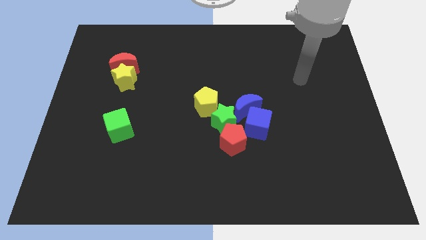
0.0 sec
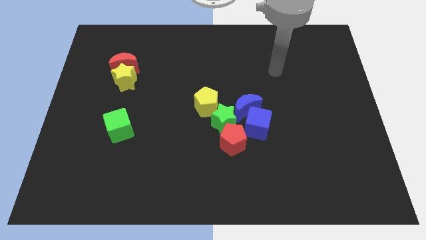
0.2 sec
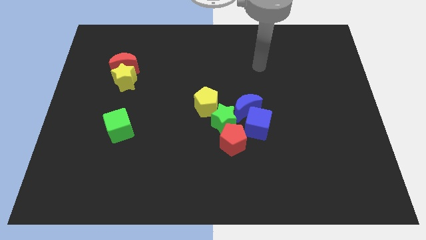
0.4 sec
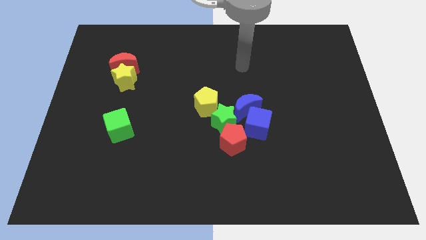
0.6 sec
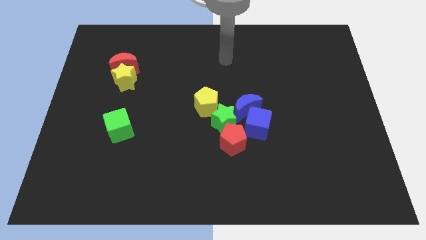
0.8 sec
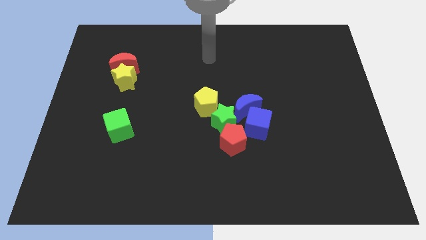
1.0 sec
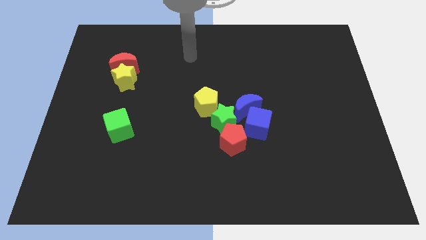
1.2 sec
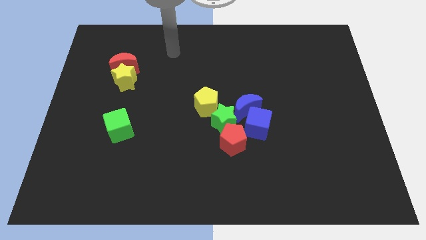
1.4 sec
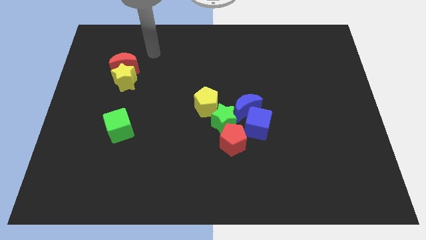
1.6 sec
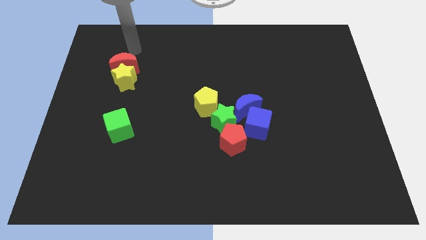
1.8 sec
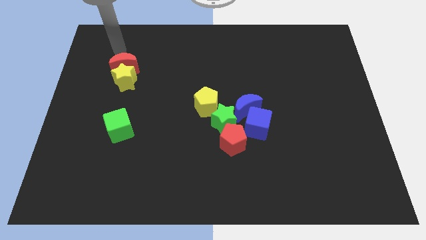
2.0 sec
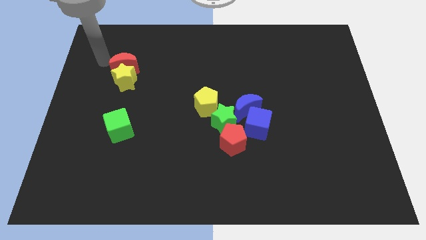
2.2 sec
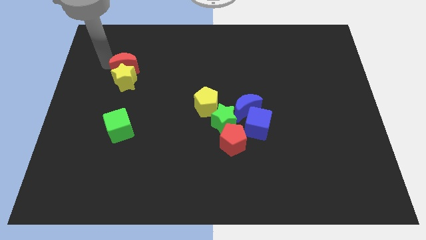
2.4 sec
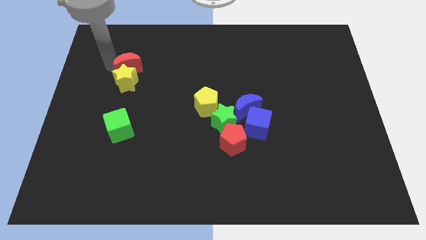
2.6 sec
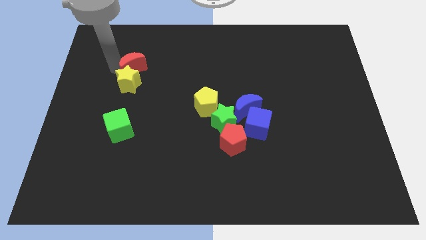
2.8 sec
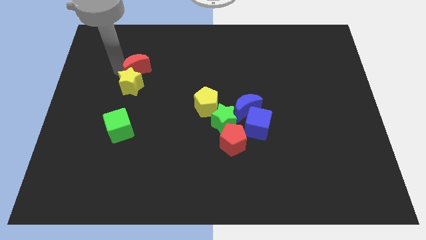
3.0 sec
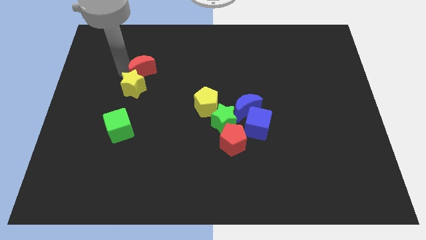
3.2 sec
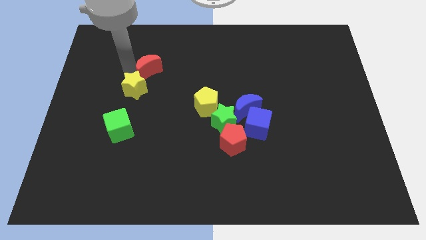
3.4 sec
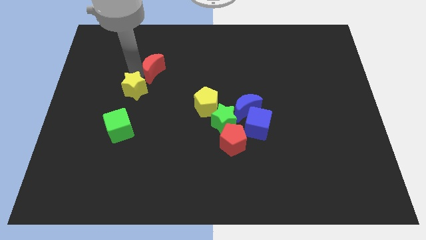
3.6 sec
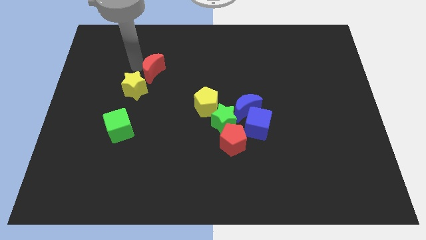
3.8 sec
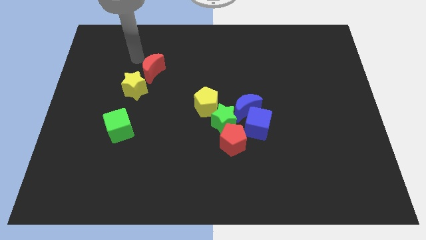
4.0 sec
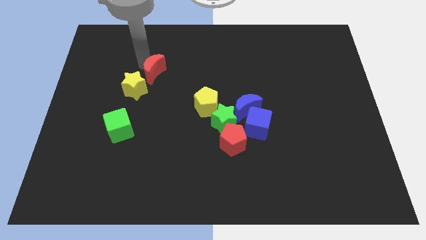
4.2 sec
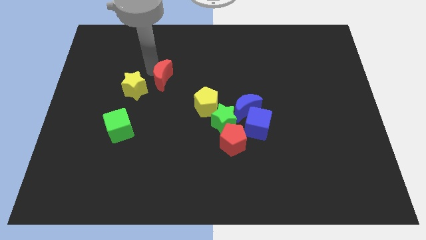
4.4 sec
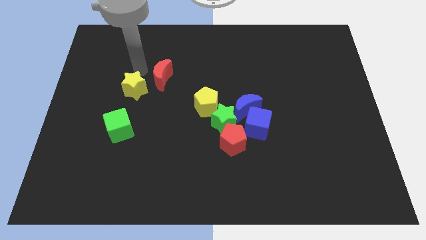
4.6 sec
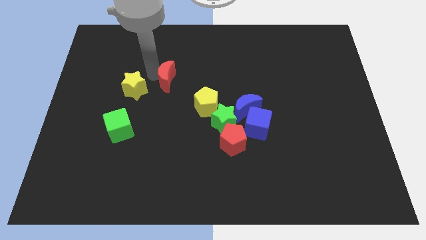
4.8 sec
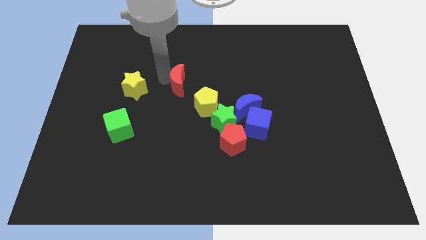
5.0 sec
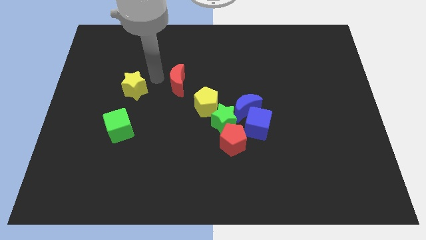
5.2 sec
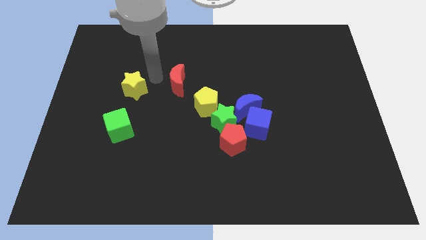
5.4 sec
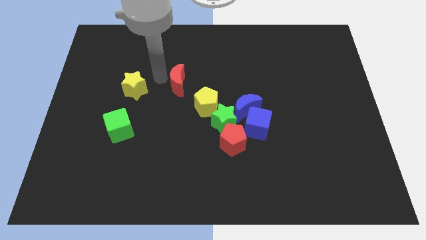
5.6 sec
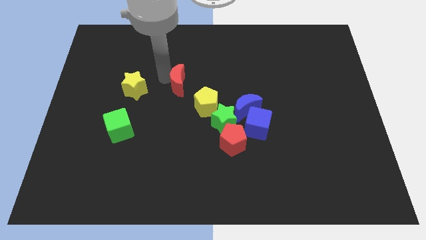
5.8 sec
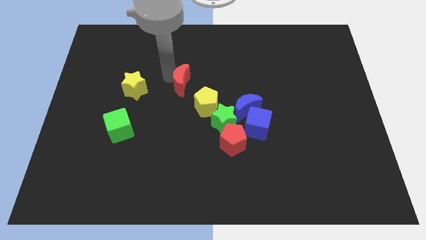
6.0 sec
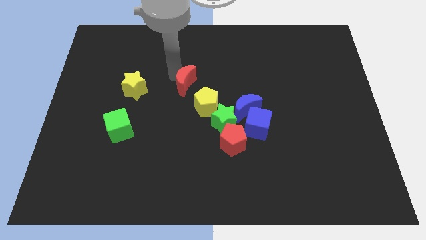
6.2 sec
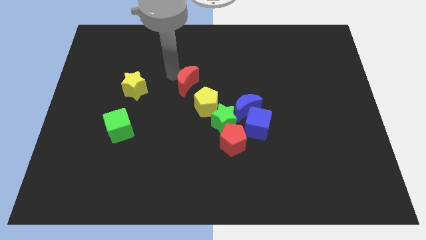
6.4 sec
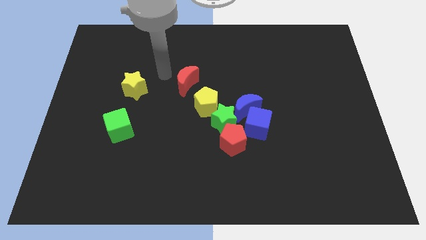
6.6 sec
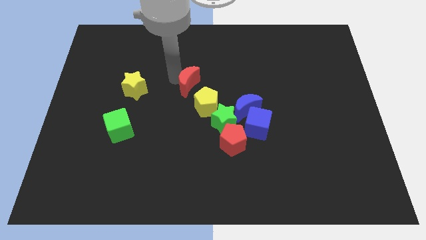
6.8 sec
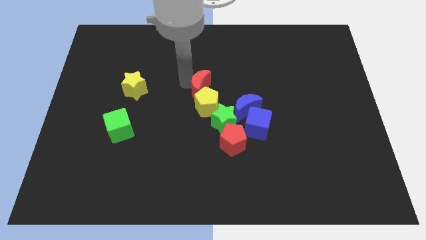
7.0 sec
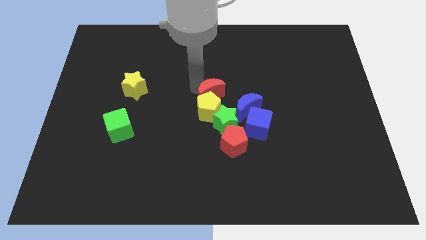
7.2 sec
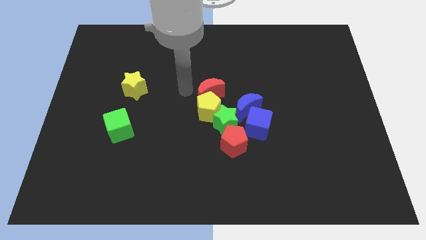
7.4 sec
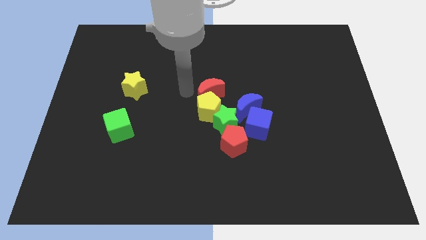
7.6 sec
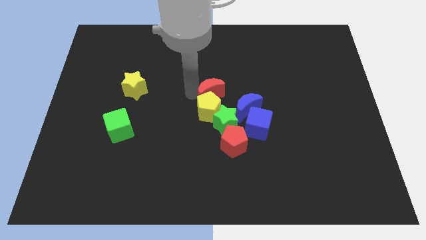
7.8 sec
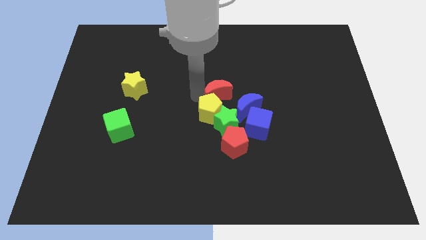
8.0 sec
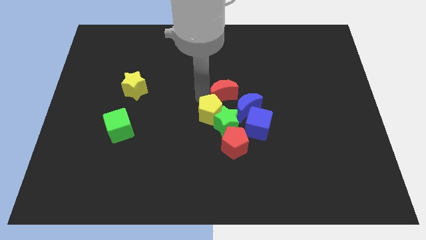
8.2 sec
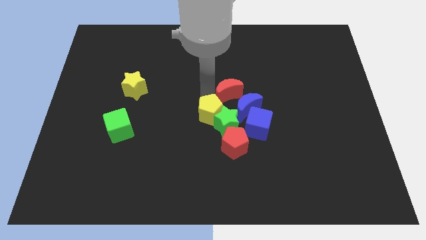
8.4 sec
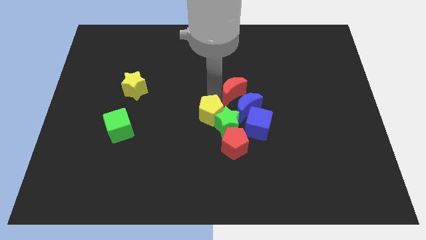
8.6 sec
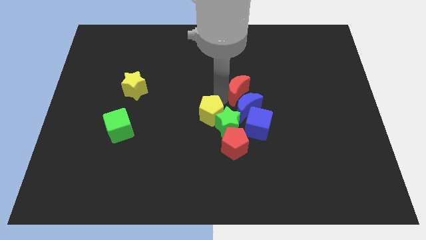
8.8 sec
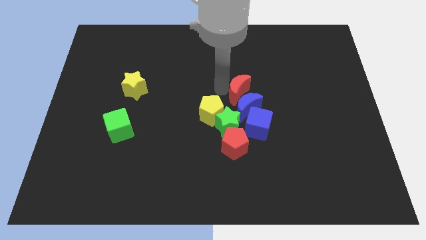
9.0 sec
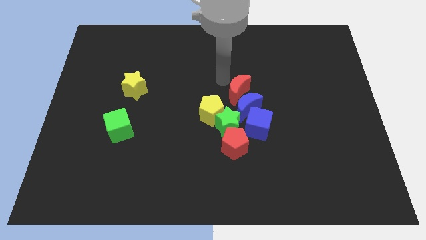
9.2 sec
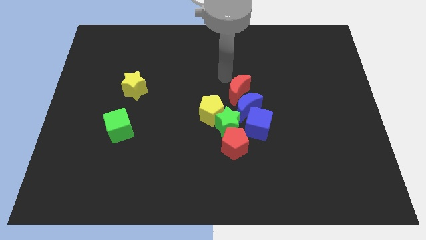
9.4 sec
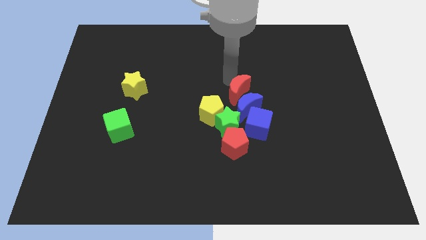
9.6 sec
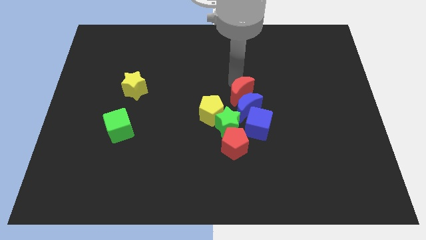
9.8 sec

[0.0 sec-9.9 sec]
push the red moon to the top right of the green star

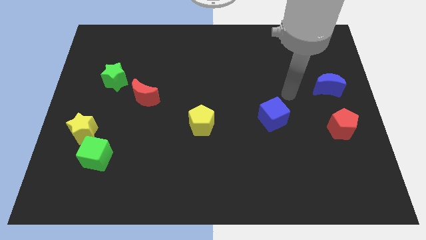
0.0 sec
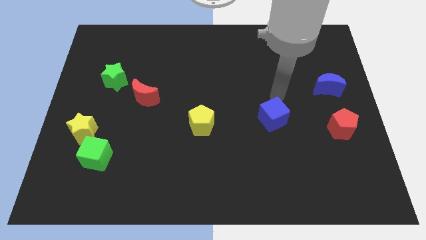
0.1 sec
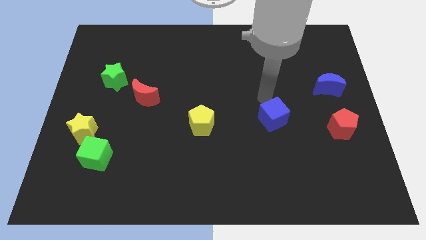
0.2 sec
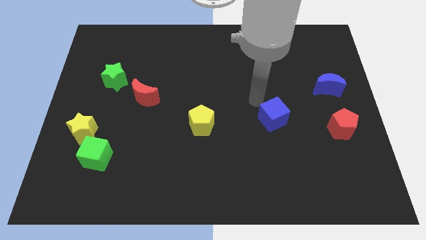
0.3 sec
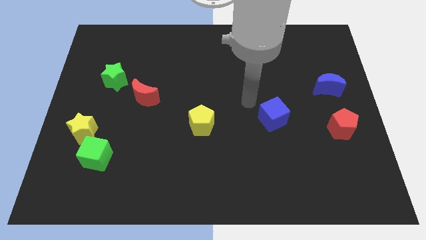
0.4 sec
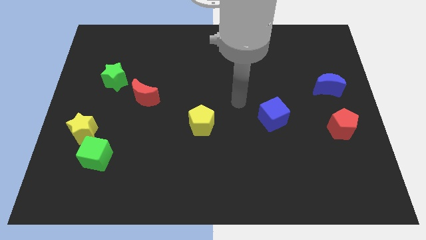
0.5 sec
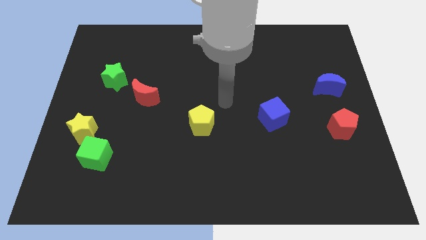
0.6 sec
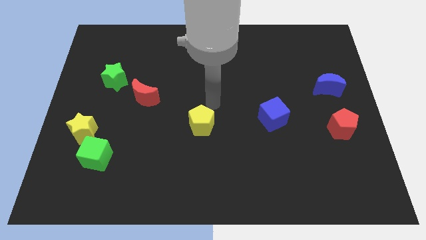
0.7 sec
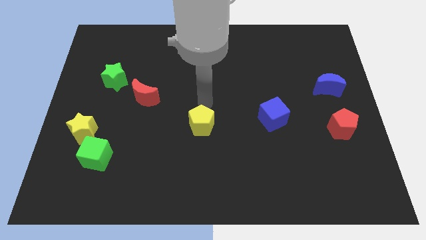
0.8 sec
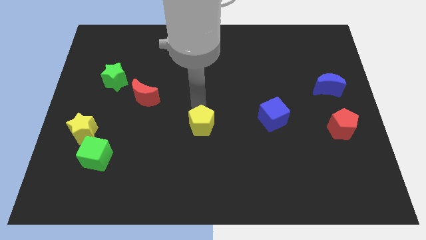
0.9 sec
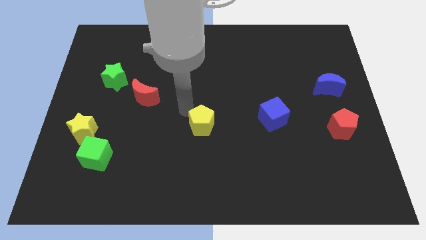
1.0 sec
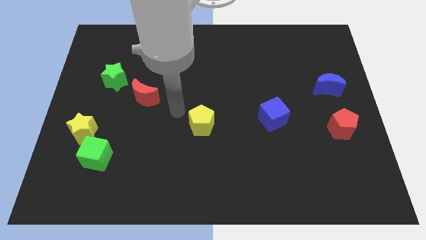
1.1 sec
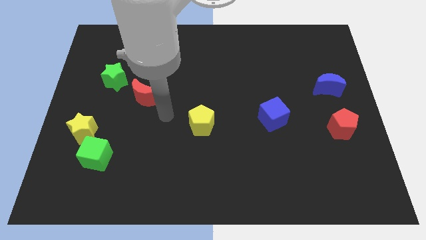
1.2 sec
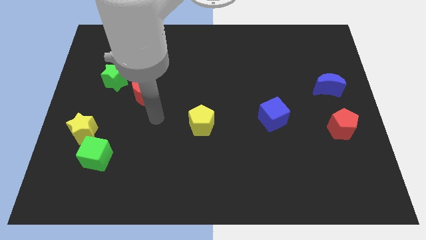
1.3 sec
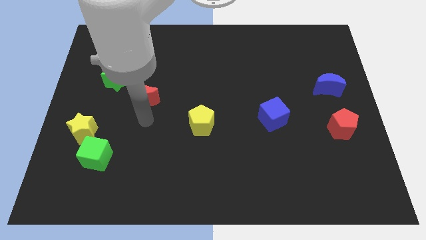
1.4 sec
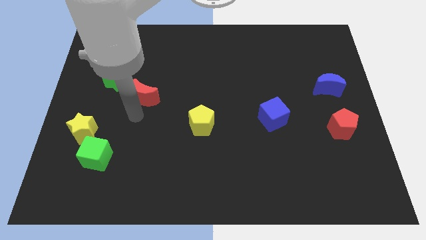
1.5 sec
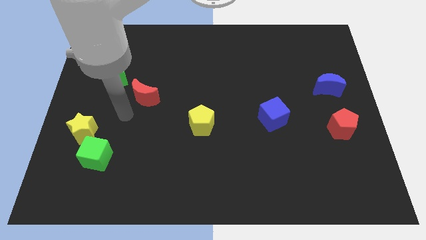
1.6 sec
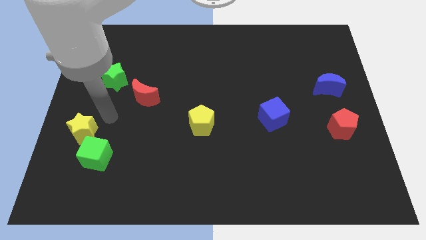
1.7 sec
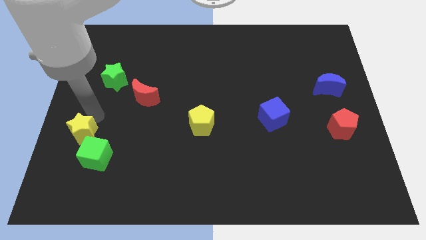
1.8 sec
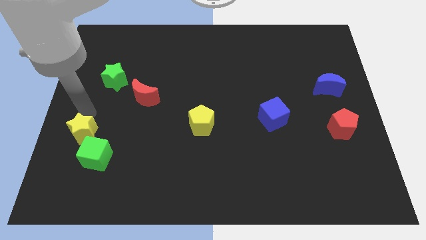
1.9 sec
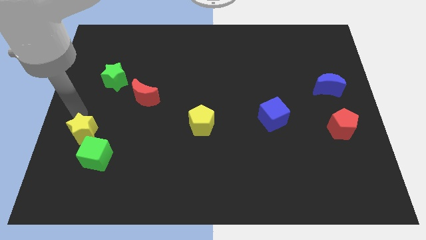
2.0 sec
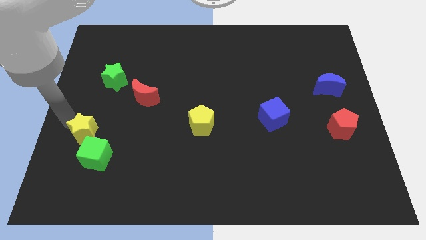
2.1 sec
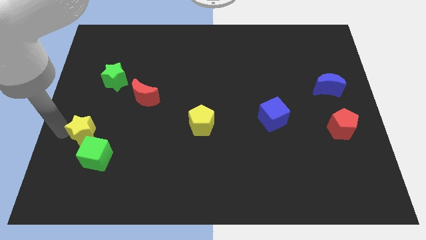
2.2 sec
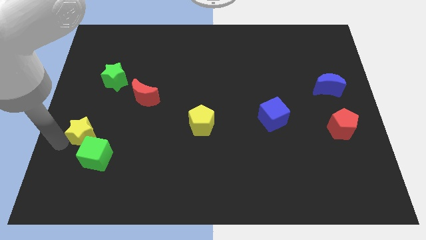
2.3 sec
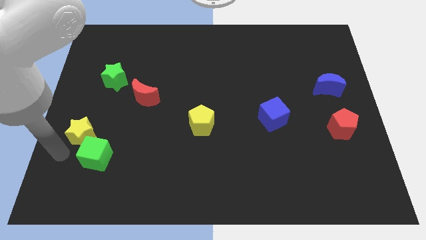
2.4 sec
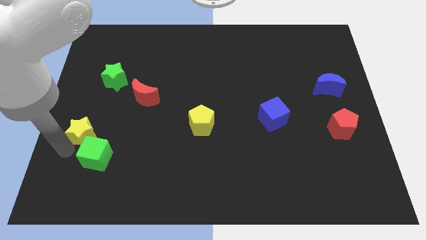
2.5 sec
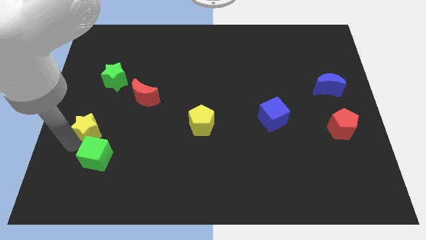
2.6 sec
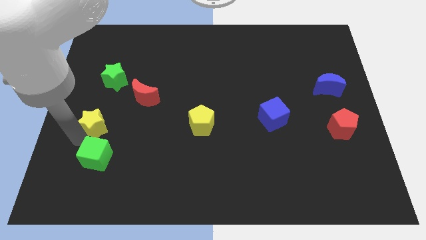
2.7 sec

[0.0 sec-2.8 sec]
move the yellow star below the green star
